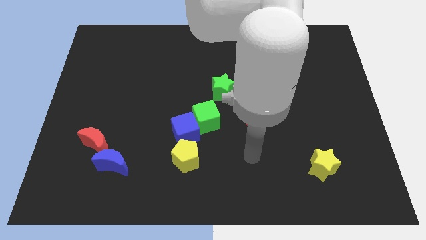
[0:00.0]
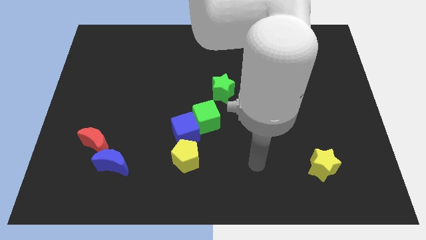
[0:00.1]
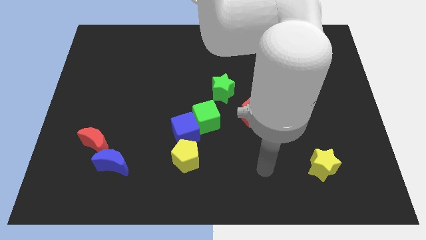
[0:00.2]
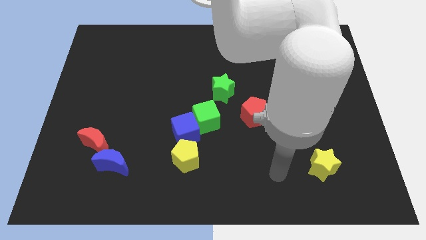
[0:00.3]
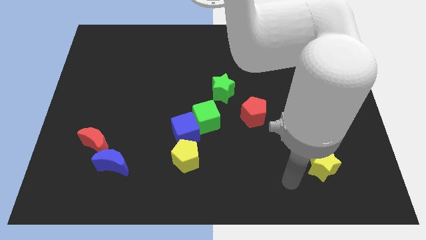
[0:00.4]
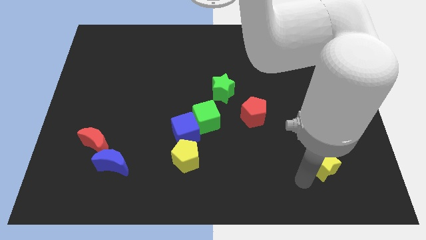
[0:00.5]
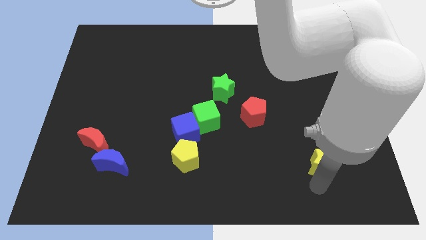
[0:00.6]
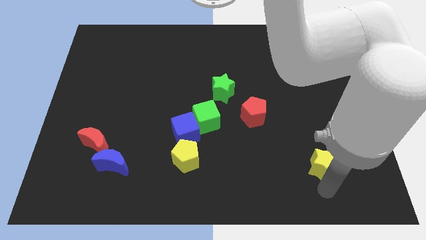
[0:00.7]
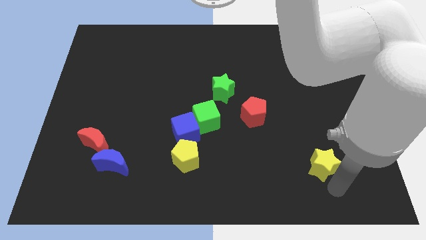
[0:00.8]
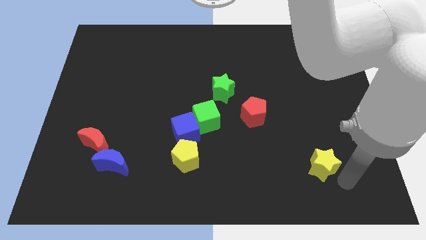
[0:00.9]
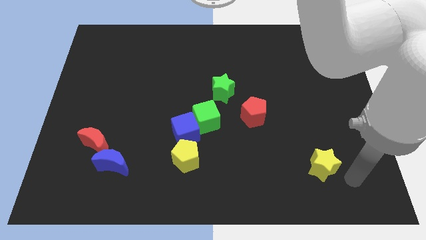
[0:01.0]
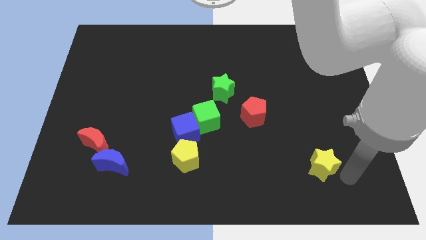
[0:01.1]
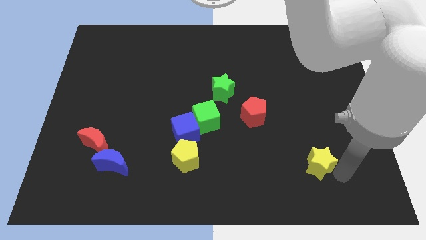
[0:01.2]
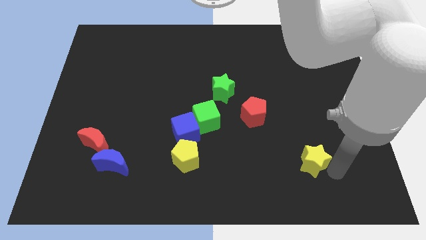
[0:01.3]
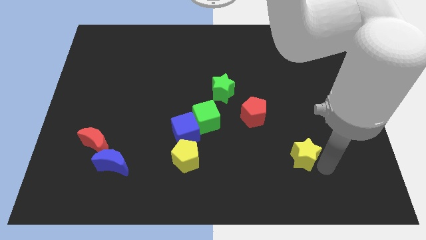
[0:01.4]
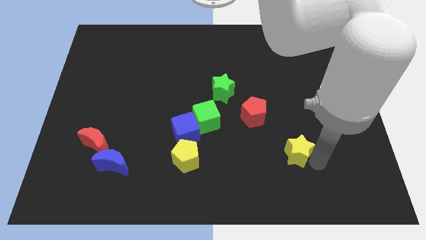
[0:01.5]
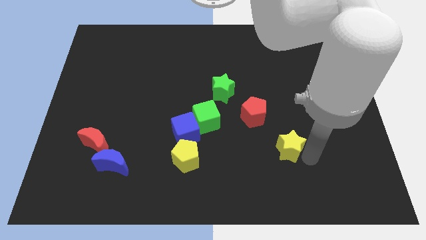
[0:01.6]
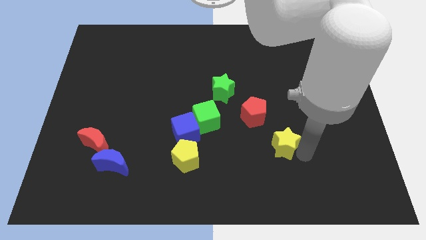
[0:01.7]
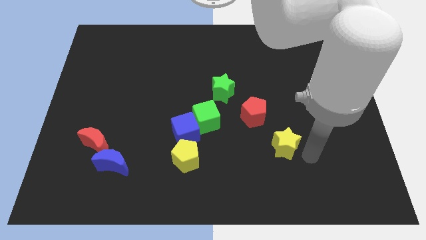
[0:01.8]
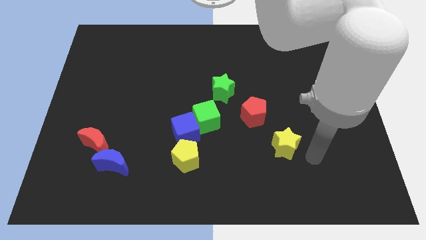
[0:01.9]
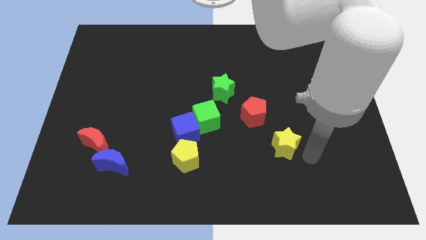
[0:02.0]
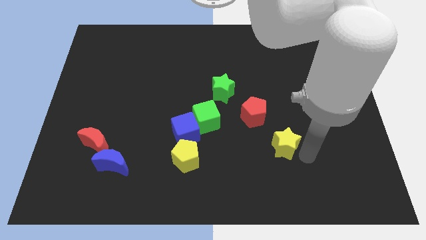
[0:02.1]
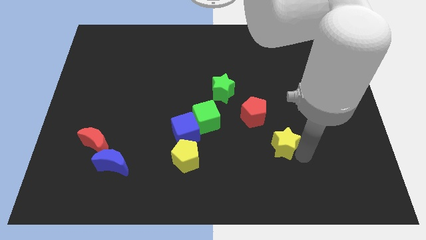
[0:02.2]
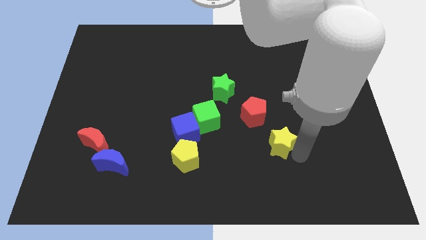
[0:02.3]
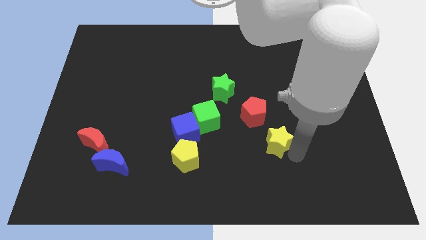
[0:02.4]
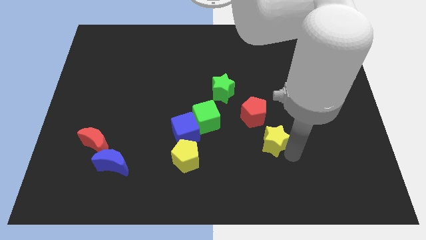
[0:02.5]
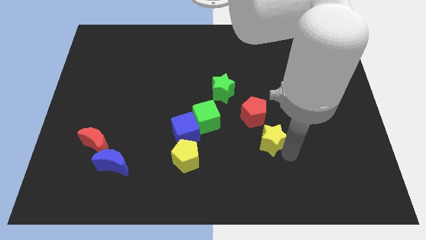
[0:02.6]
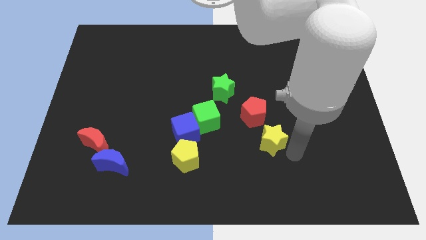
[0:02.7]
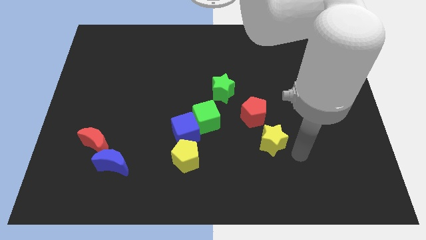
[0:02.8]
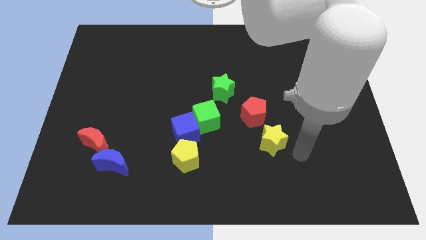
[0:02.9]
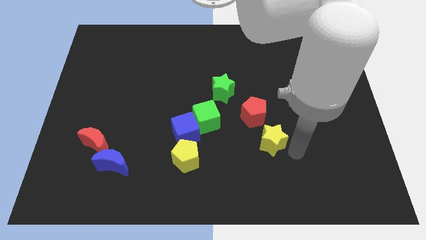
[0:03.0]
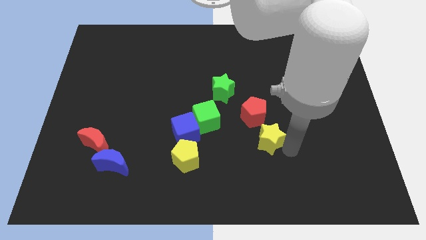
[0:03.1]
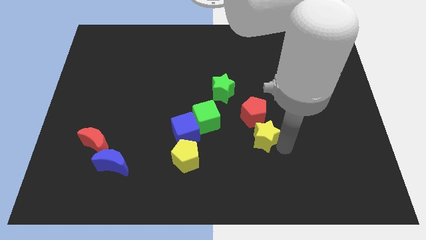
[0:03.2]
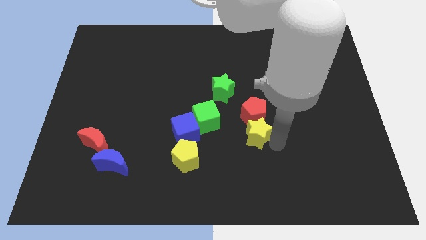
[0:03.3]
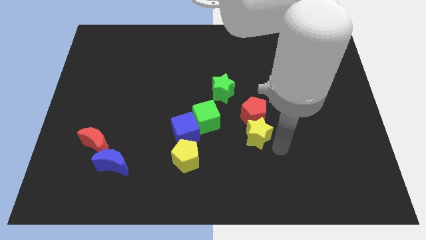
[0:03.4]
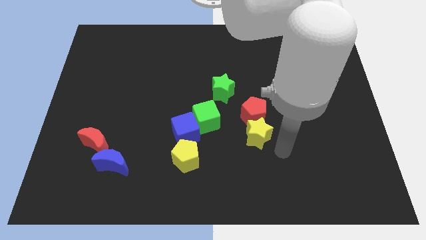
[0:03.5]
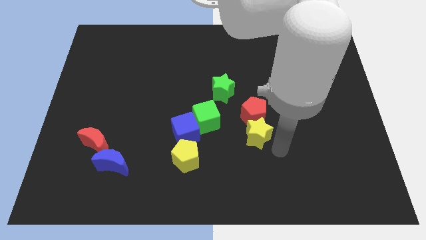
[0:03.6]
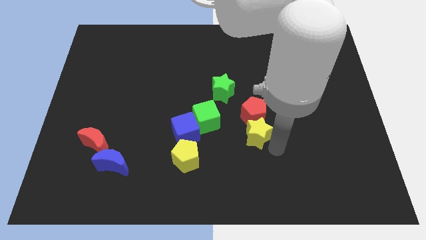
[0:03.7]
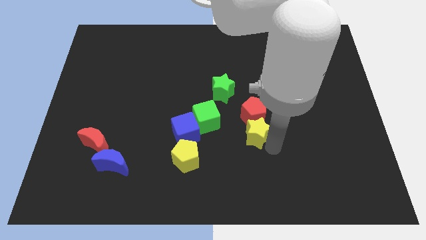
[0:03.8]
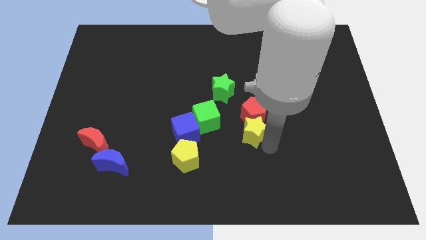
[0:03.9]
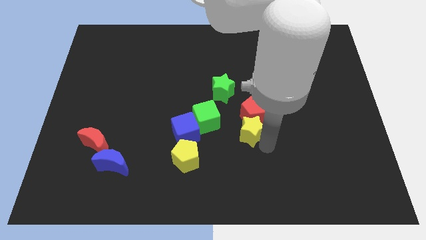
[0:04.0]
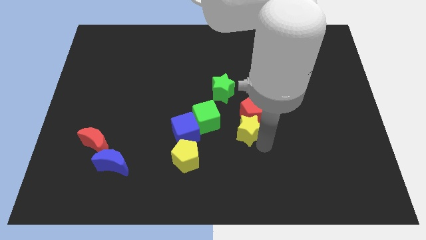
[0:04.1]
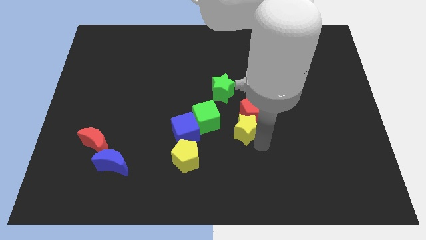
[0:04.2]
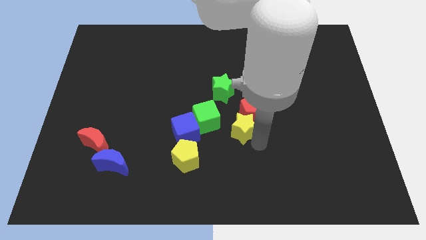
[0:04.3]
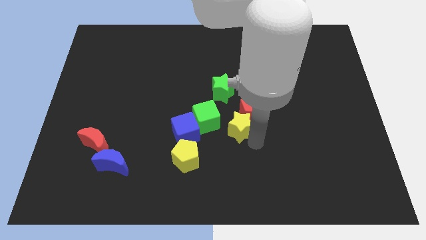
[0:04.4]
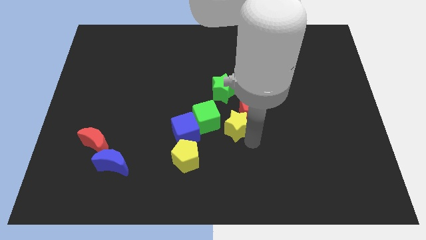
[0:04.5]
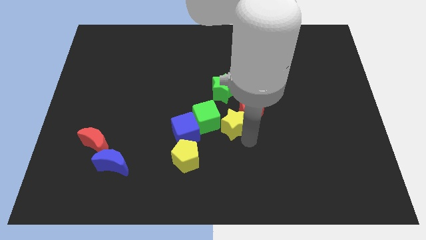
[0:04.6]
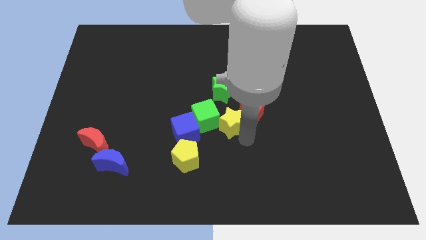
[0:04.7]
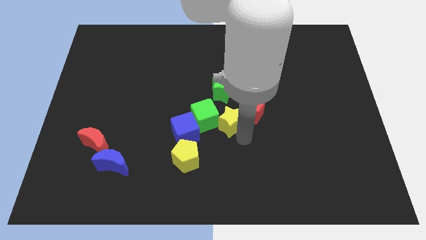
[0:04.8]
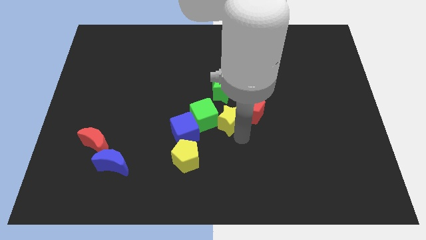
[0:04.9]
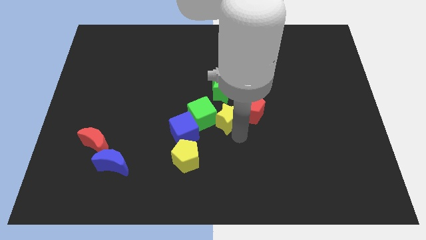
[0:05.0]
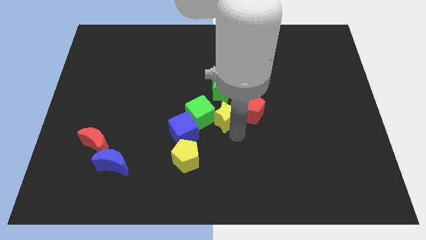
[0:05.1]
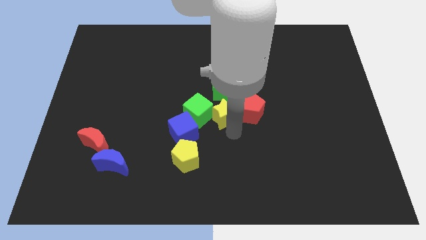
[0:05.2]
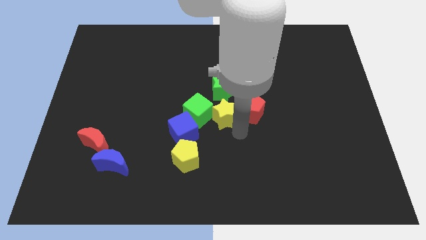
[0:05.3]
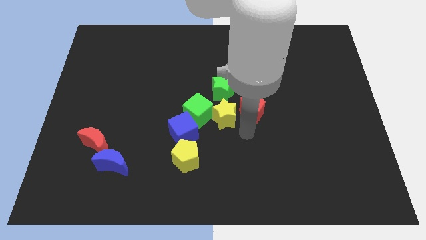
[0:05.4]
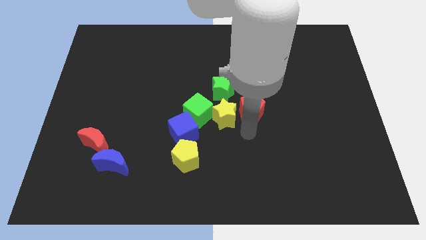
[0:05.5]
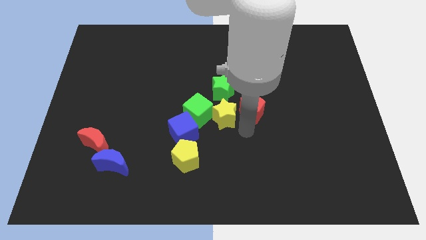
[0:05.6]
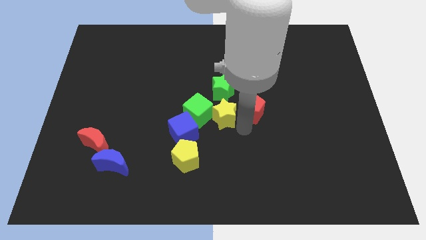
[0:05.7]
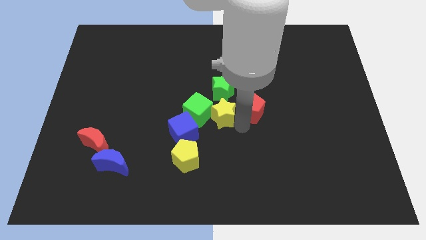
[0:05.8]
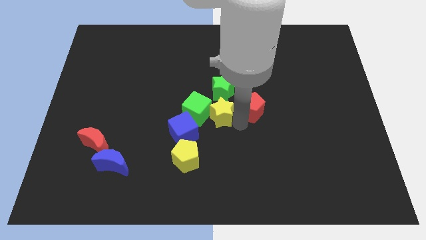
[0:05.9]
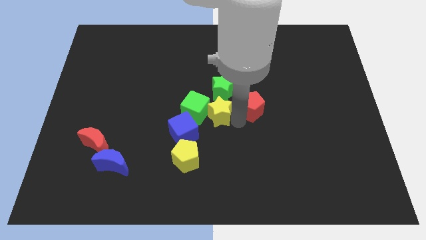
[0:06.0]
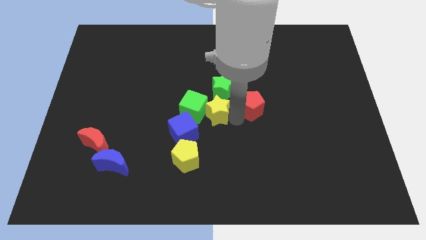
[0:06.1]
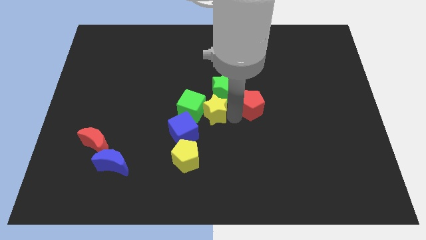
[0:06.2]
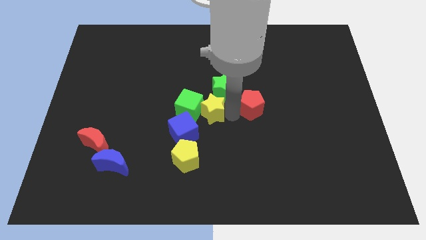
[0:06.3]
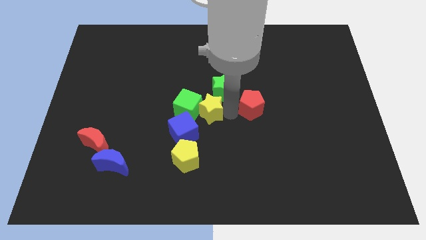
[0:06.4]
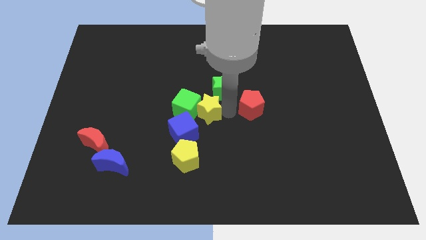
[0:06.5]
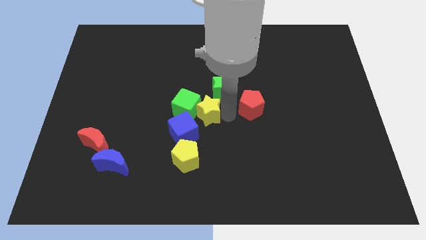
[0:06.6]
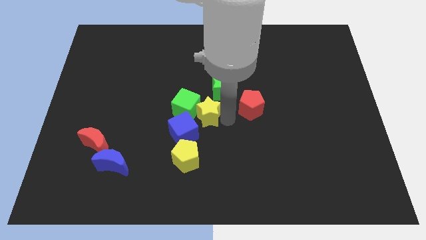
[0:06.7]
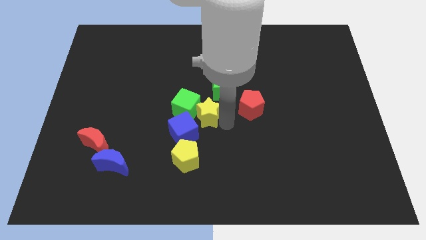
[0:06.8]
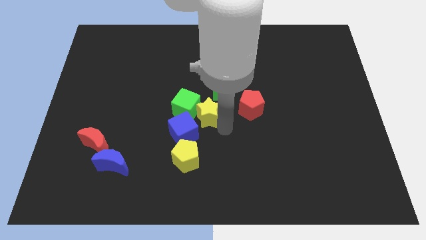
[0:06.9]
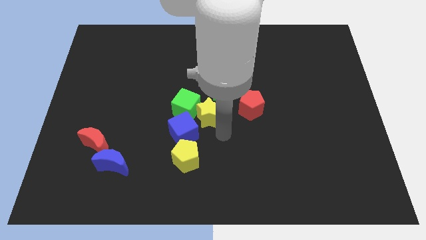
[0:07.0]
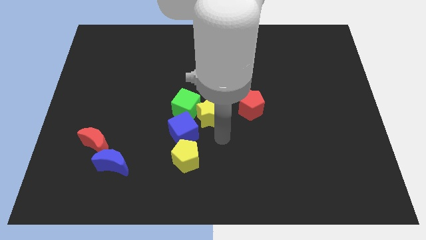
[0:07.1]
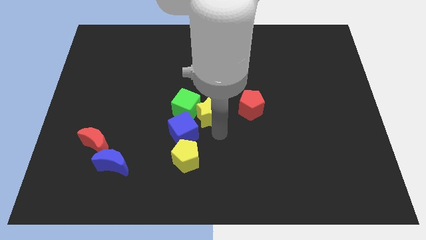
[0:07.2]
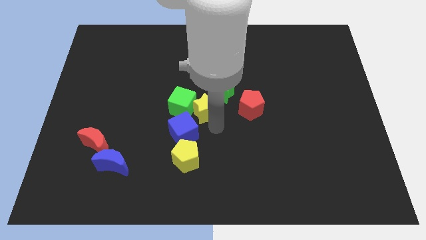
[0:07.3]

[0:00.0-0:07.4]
push the yellow star to the top side of the blue cube

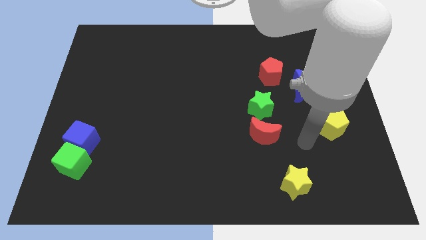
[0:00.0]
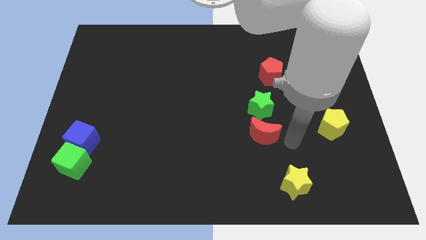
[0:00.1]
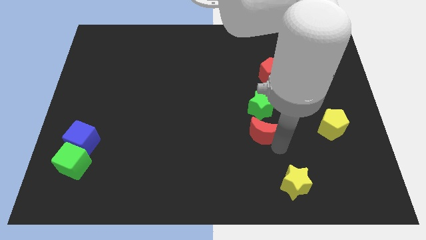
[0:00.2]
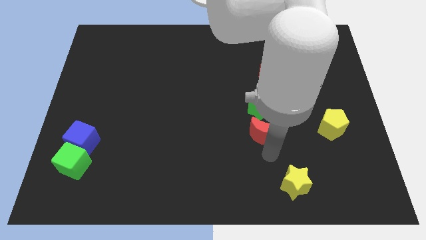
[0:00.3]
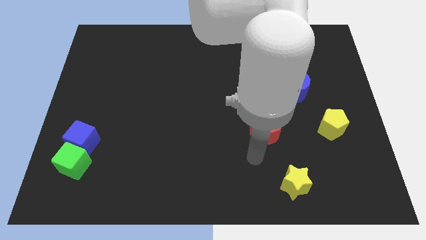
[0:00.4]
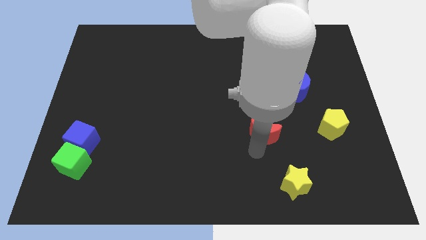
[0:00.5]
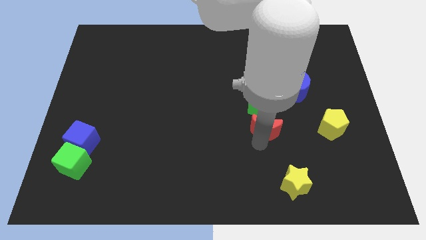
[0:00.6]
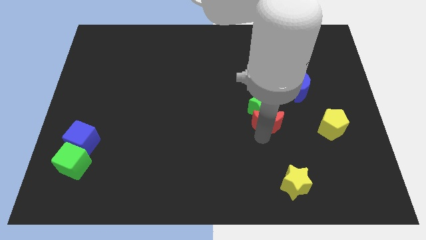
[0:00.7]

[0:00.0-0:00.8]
slide the red moon to the bottom of the red pentagon
